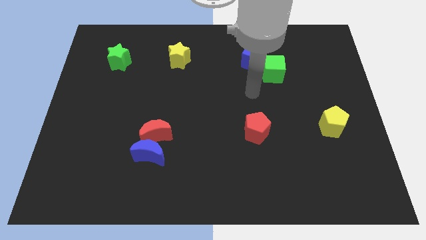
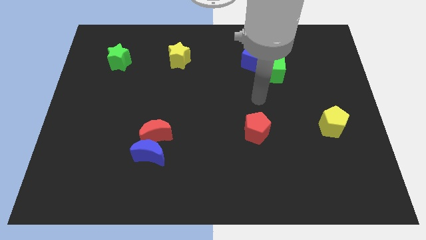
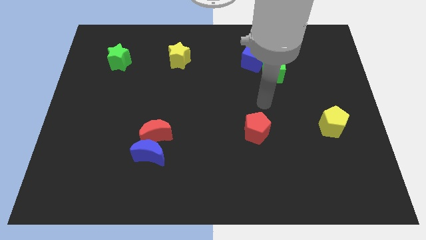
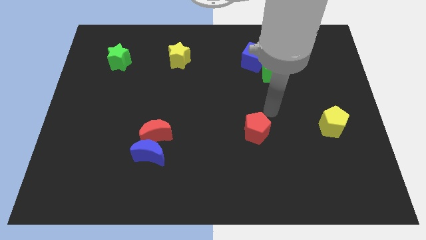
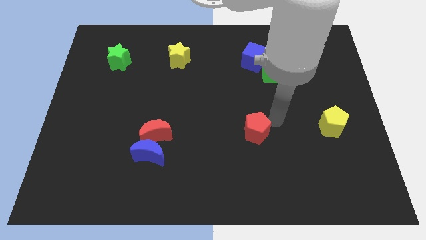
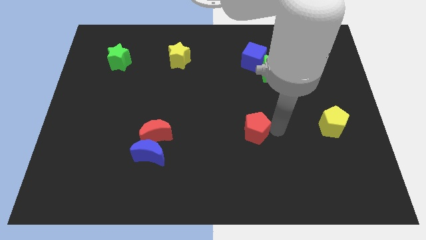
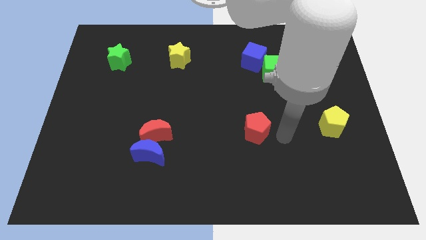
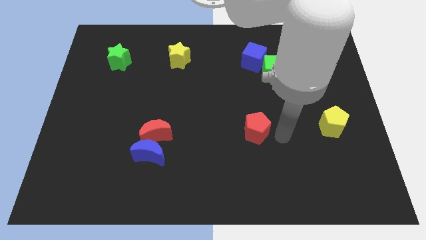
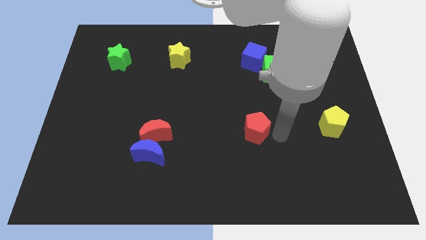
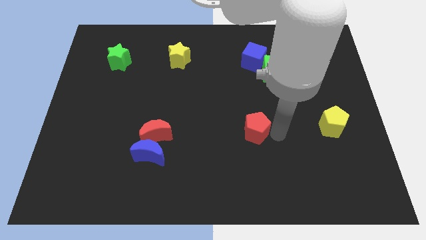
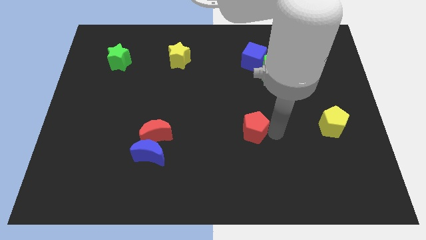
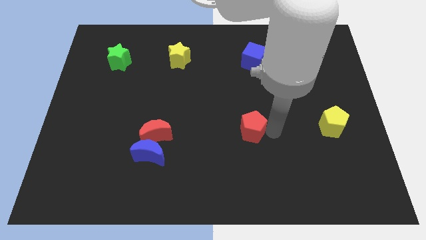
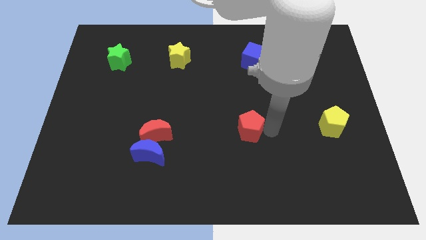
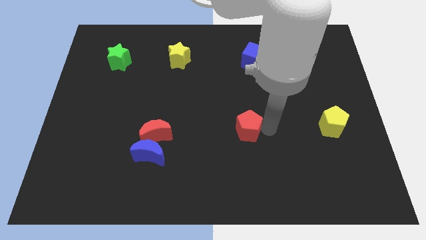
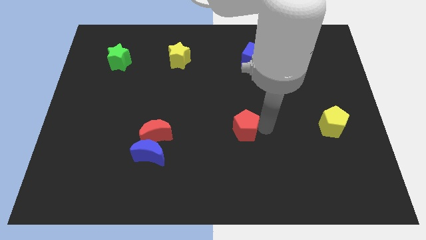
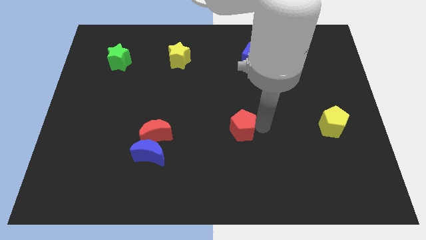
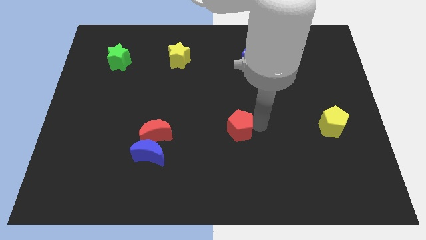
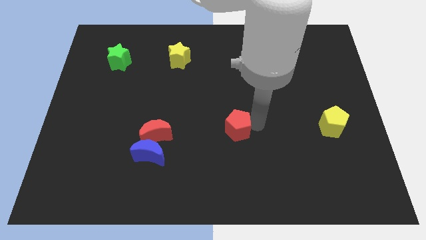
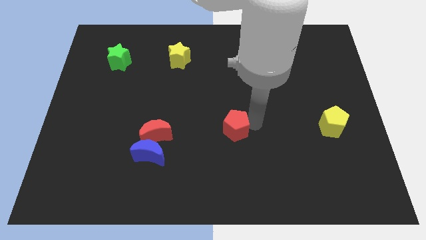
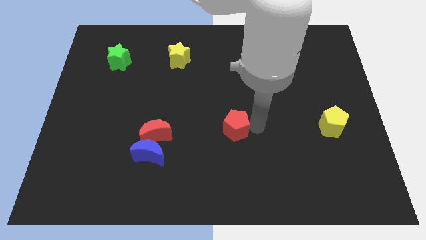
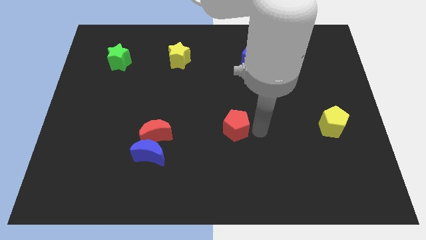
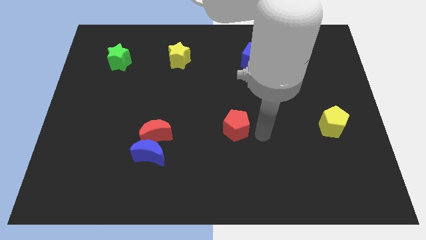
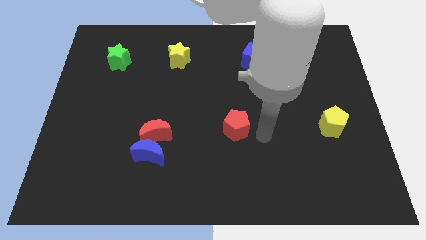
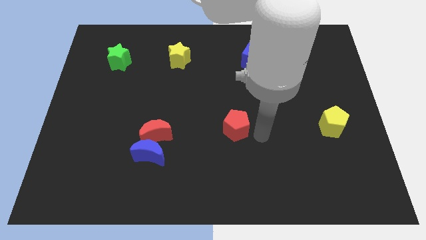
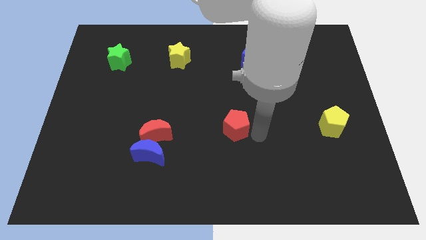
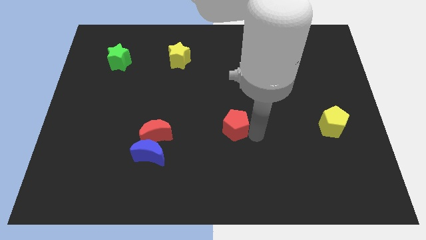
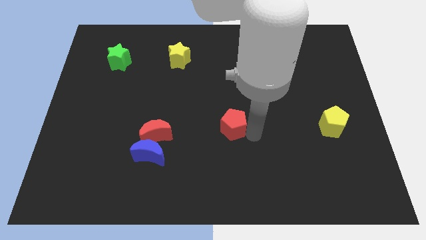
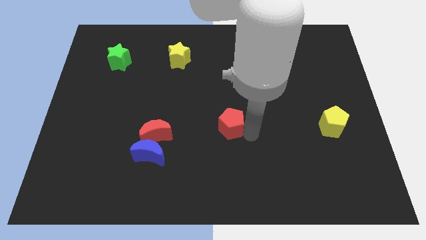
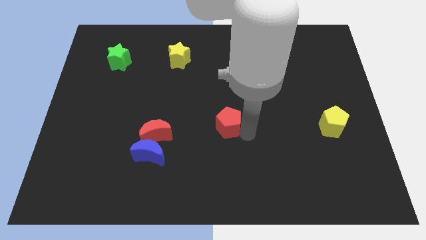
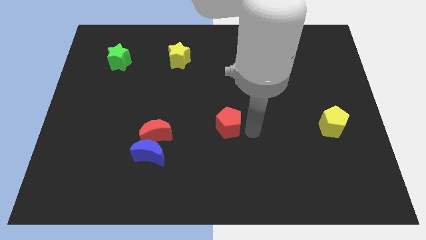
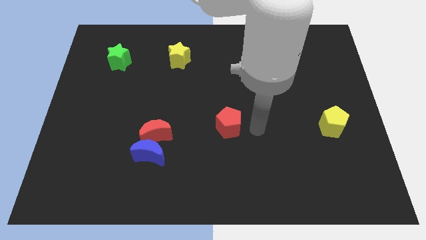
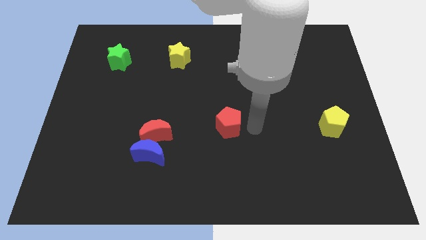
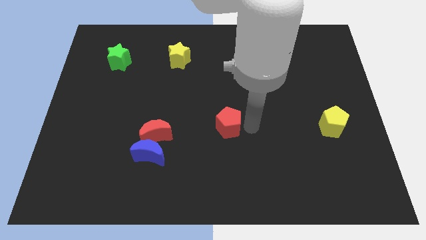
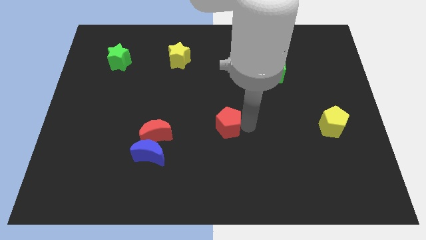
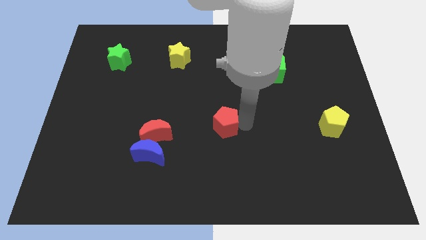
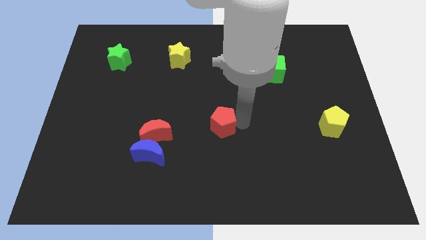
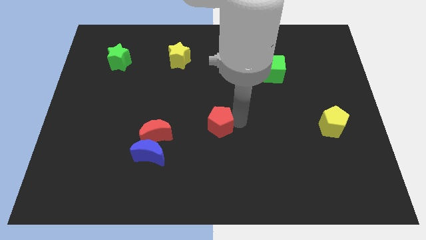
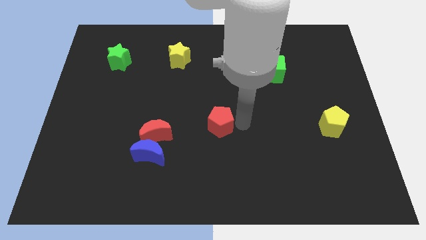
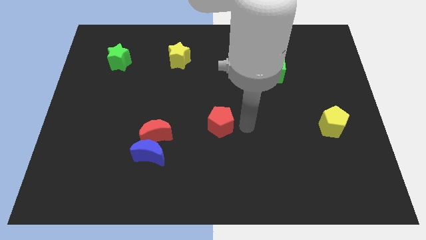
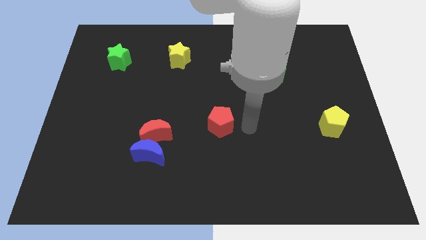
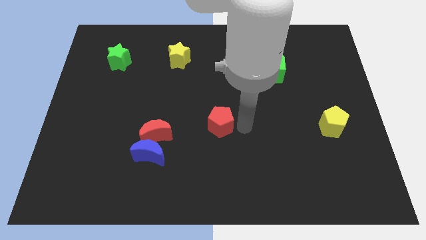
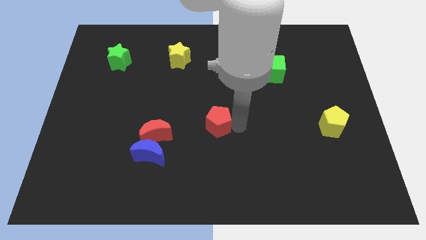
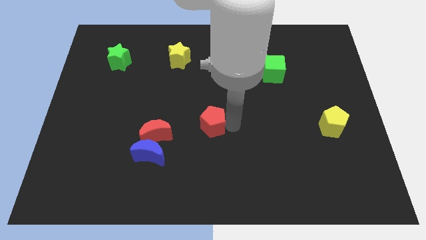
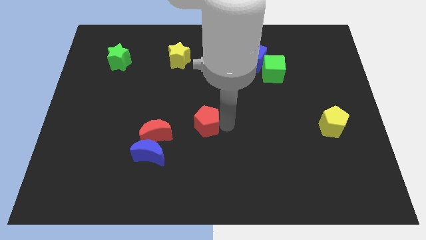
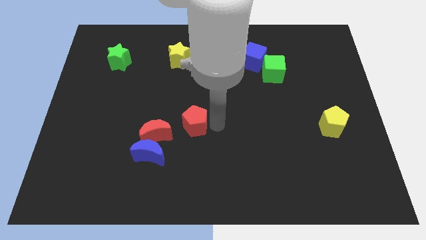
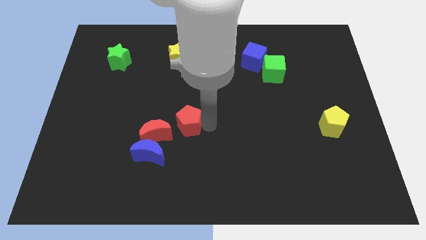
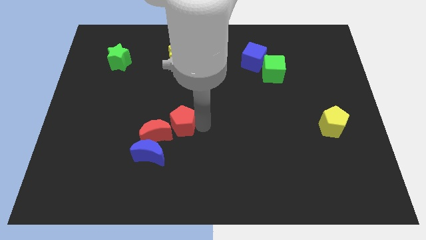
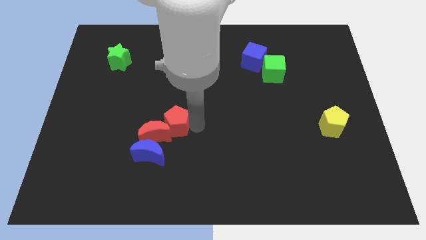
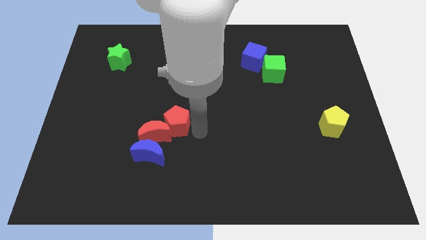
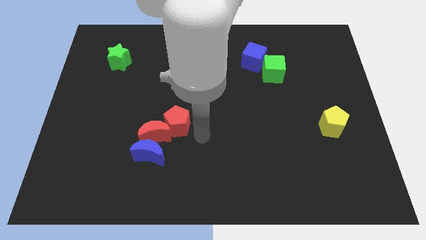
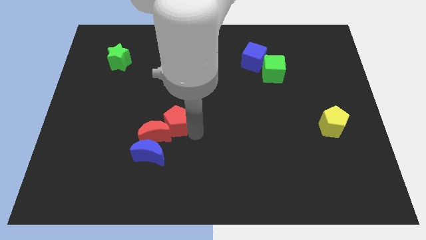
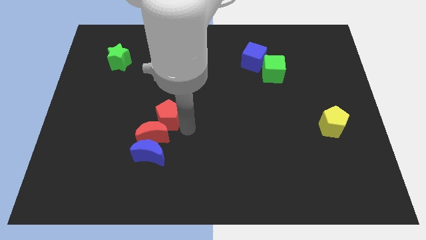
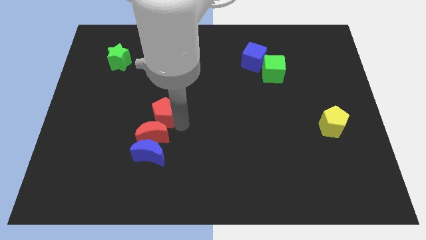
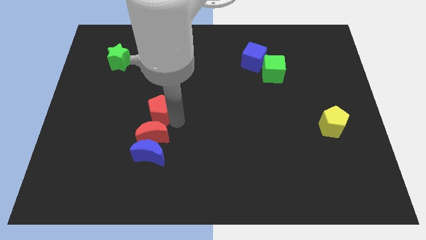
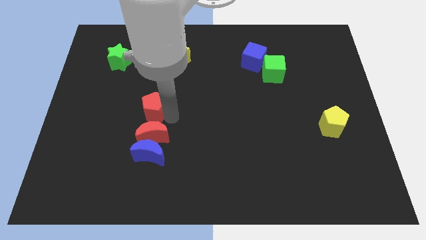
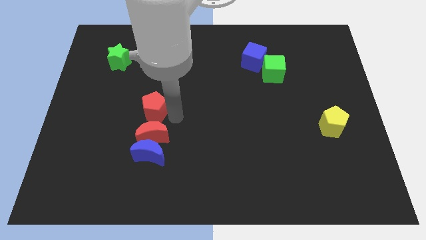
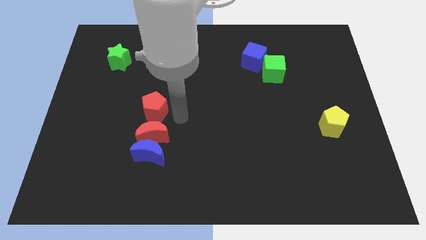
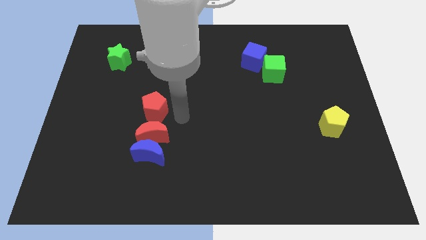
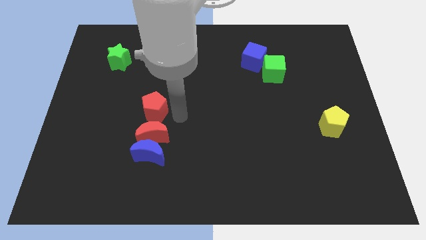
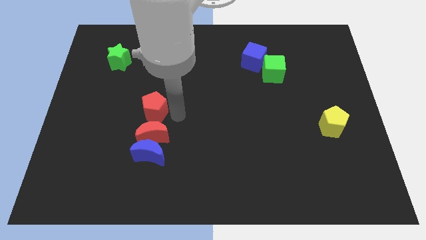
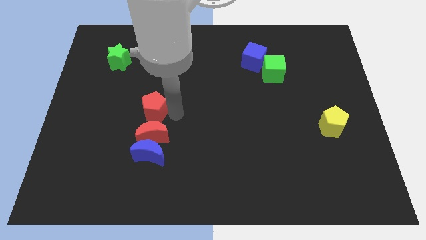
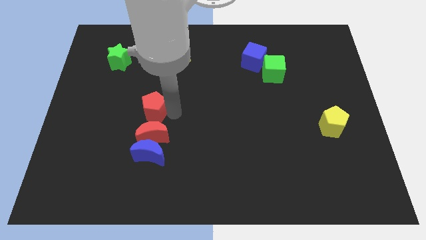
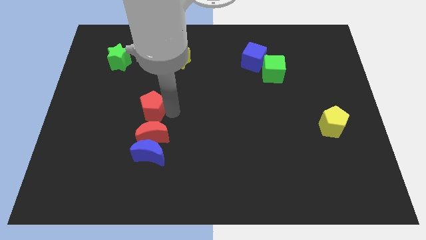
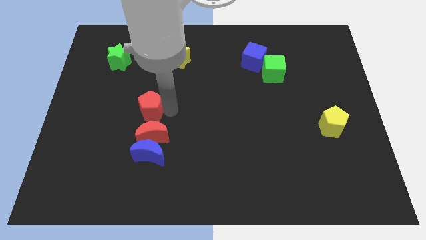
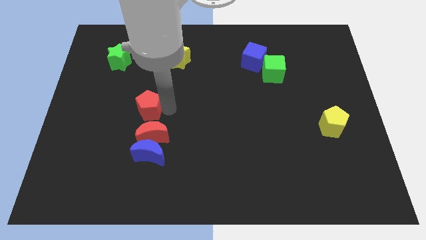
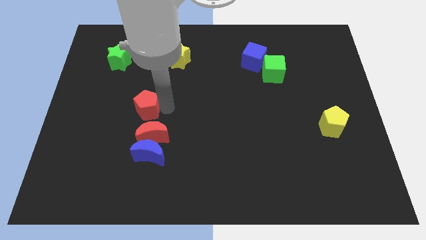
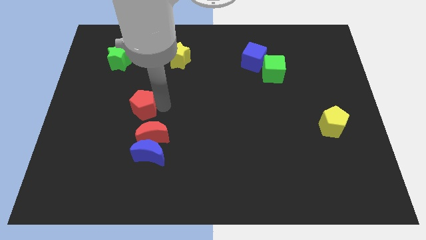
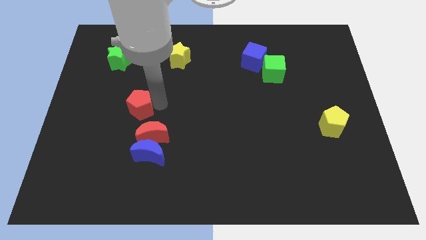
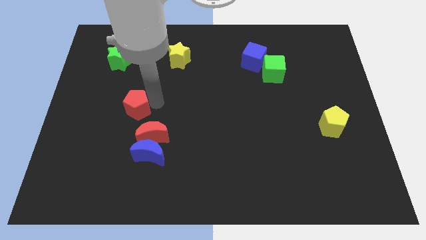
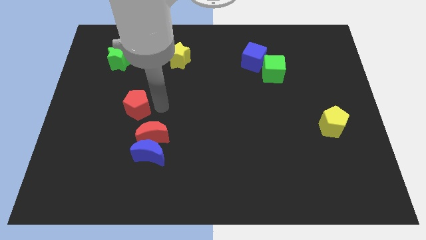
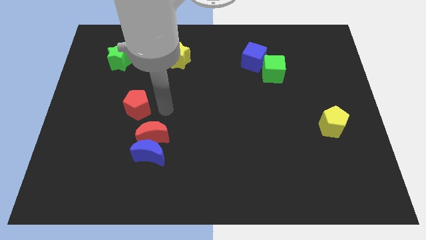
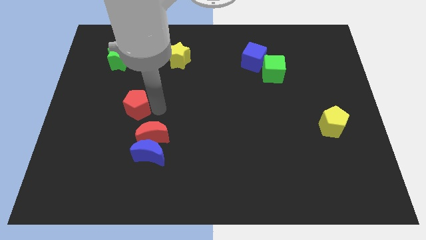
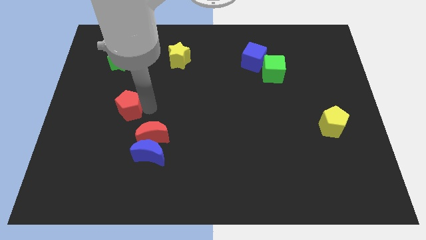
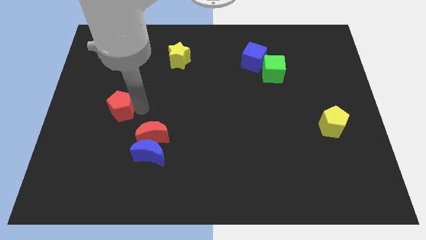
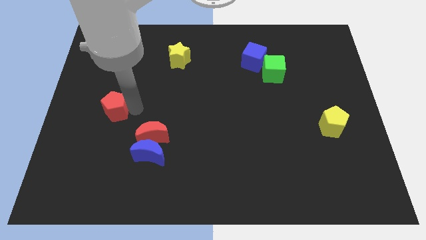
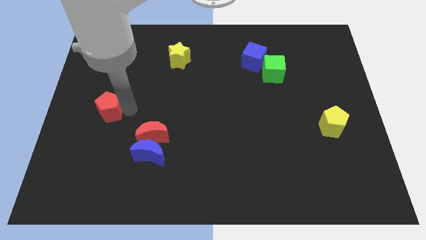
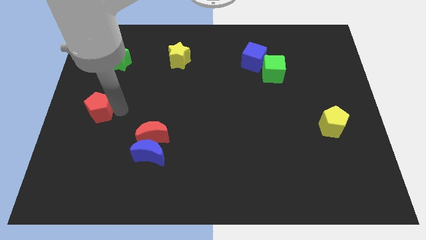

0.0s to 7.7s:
move the red pentagon to the center left
